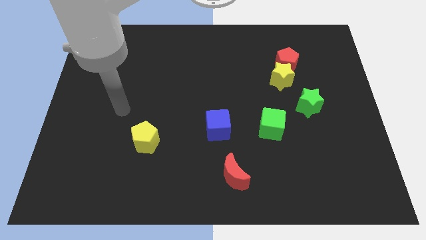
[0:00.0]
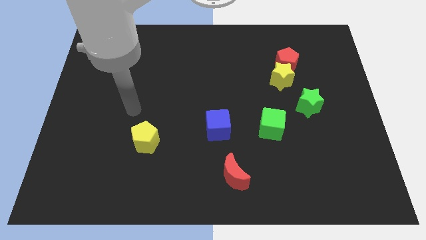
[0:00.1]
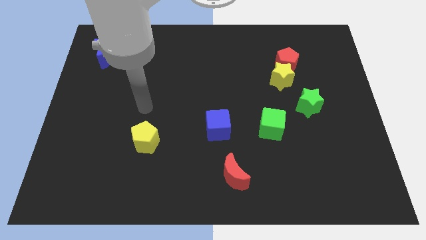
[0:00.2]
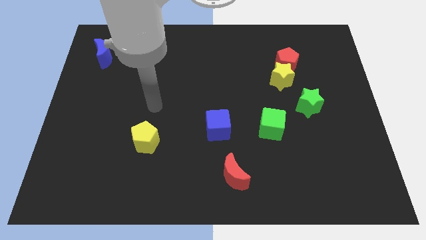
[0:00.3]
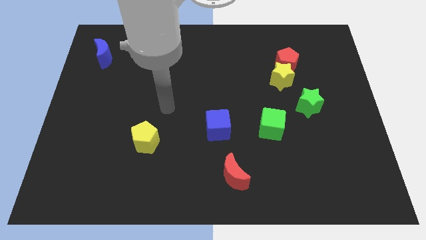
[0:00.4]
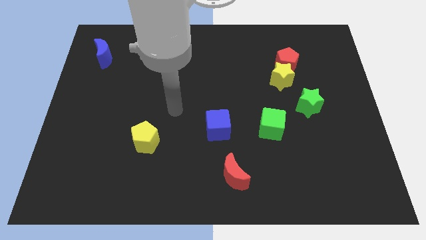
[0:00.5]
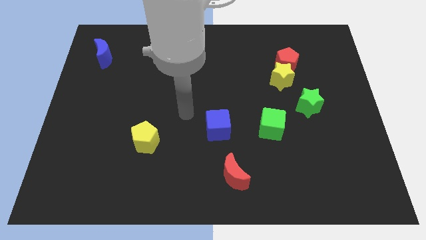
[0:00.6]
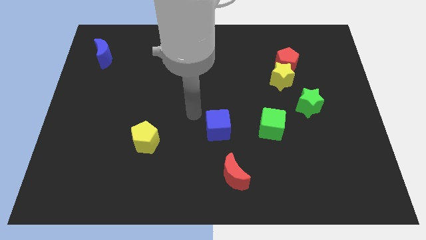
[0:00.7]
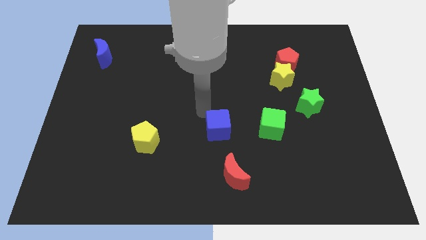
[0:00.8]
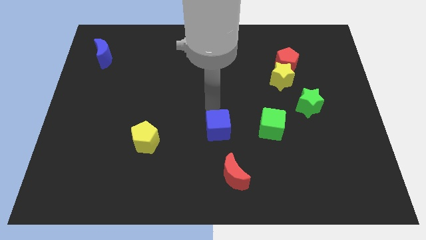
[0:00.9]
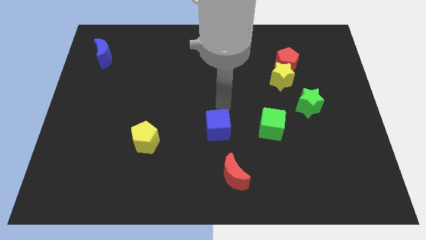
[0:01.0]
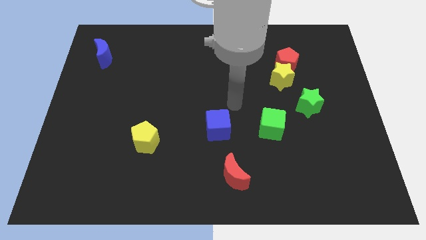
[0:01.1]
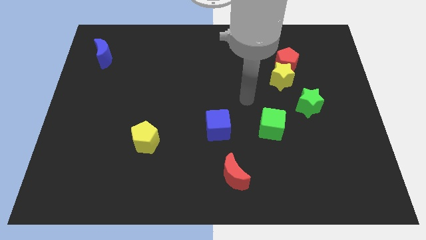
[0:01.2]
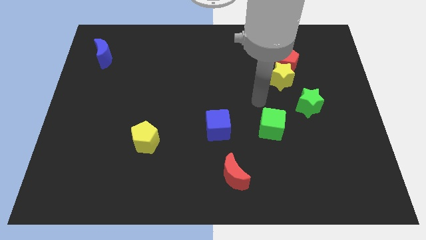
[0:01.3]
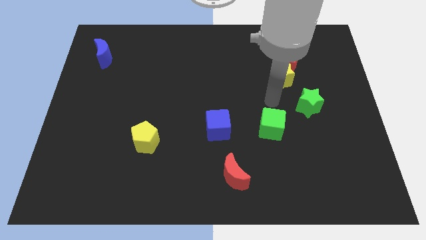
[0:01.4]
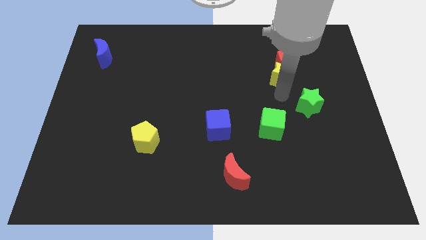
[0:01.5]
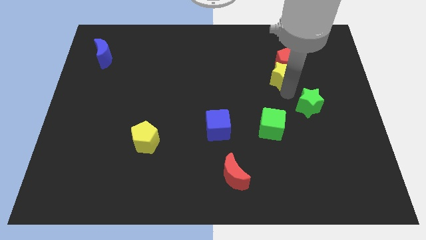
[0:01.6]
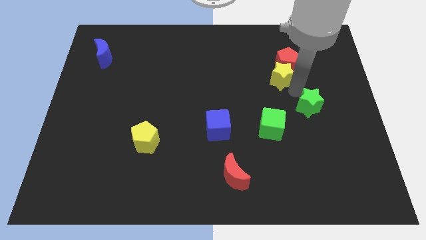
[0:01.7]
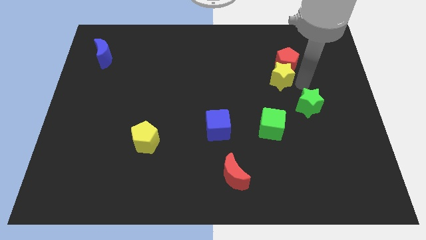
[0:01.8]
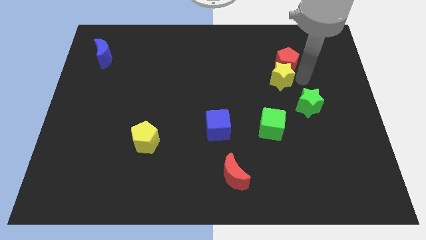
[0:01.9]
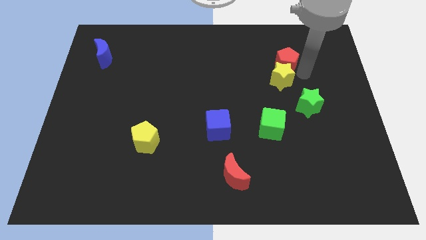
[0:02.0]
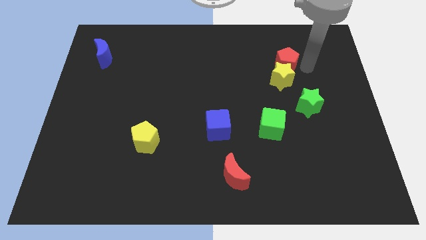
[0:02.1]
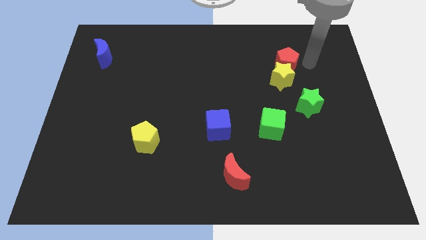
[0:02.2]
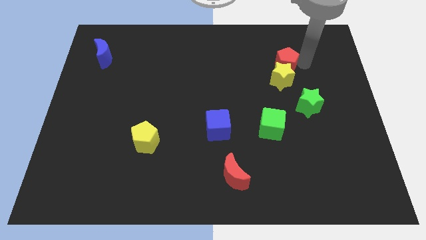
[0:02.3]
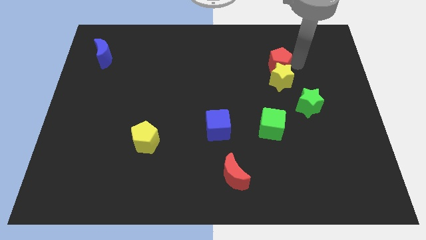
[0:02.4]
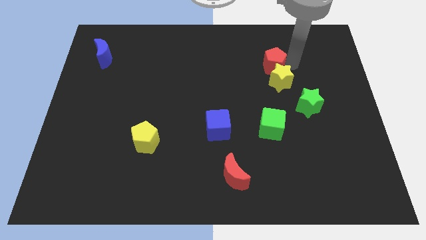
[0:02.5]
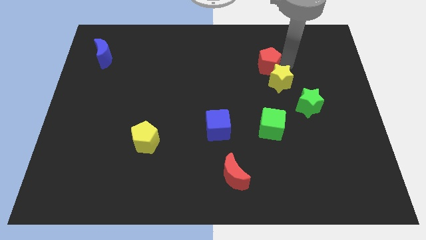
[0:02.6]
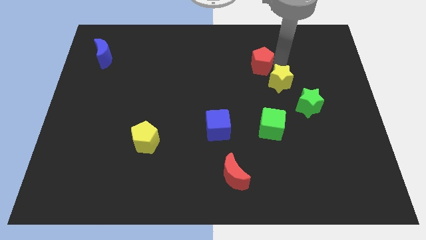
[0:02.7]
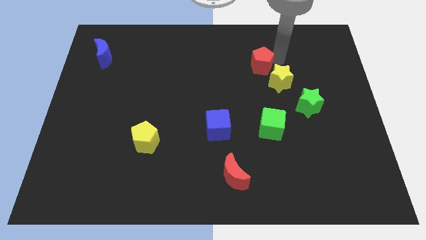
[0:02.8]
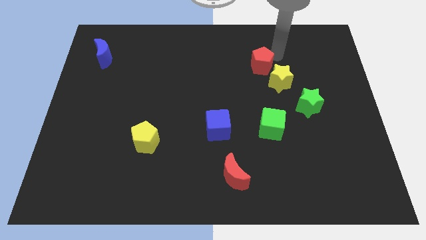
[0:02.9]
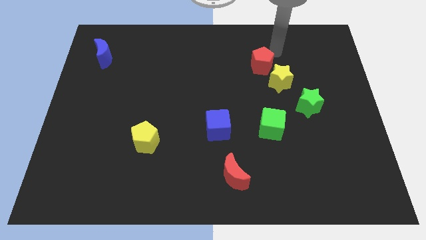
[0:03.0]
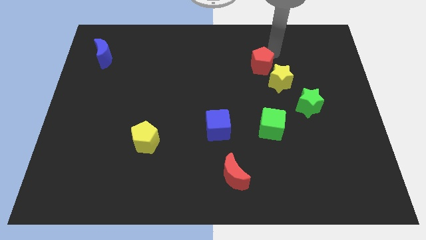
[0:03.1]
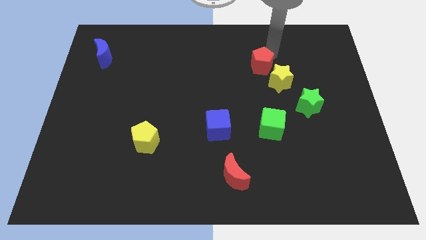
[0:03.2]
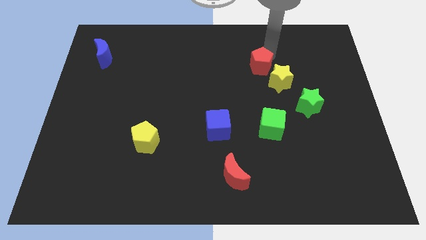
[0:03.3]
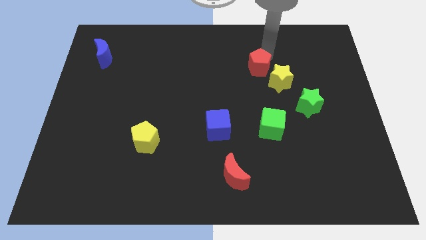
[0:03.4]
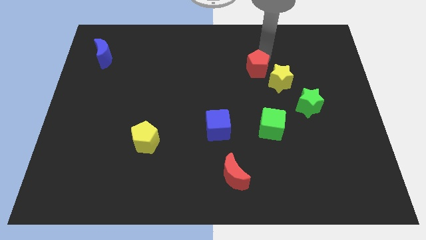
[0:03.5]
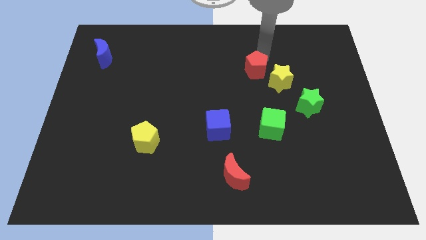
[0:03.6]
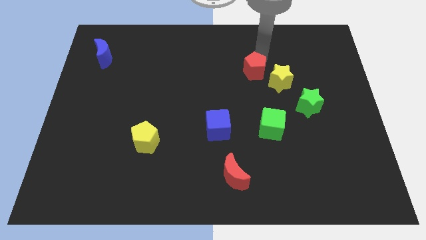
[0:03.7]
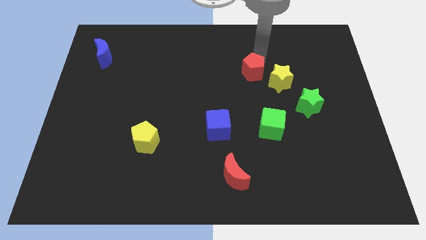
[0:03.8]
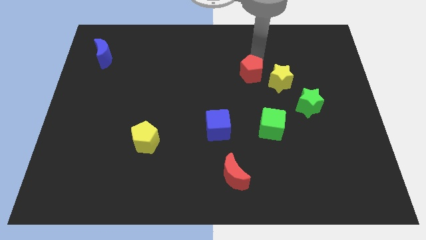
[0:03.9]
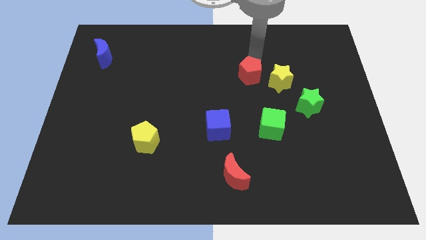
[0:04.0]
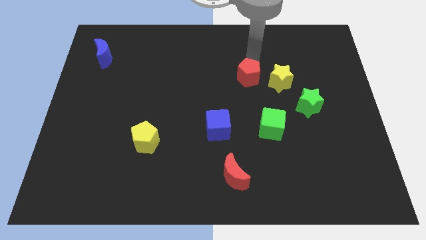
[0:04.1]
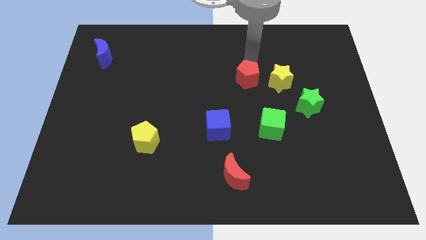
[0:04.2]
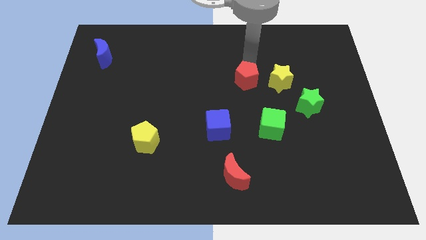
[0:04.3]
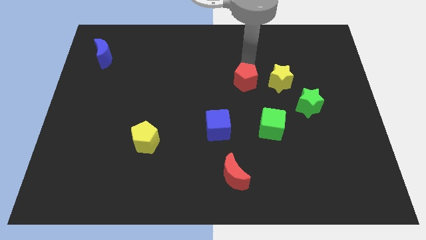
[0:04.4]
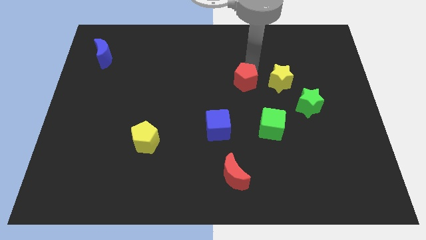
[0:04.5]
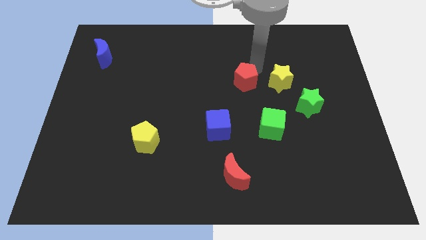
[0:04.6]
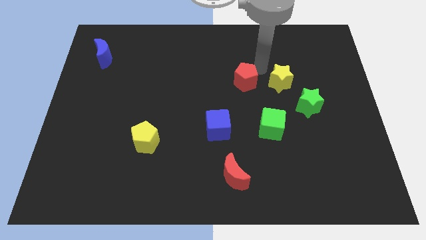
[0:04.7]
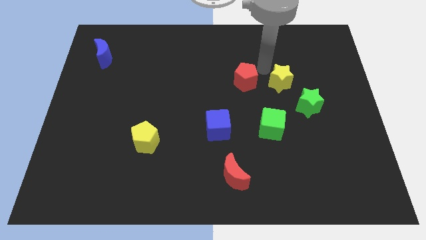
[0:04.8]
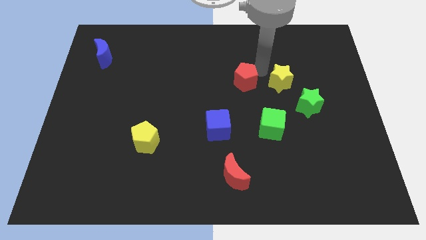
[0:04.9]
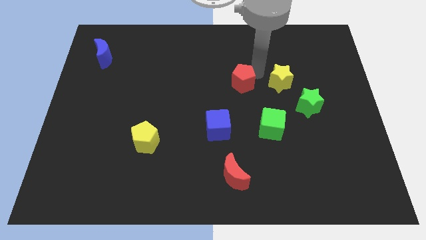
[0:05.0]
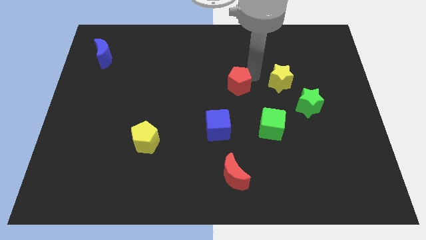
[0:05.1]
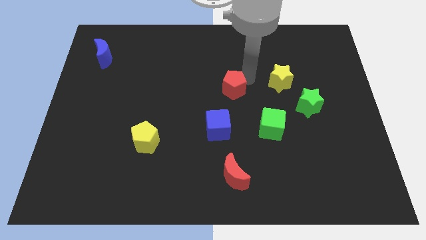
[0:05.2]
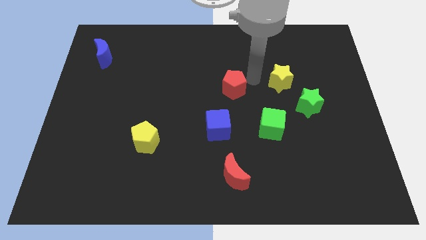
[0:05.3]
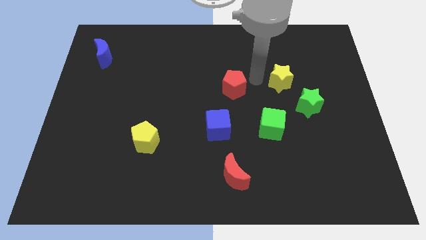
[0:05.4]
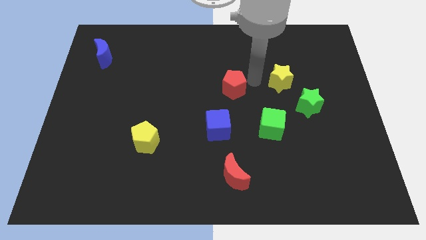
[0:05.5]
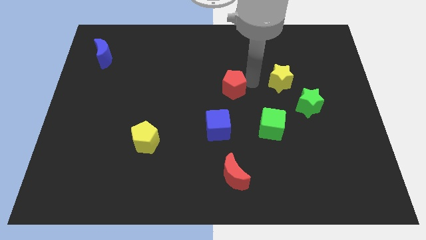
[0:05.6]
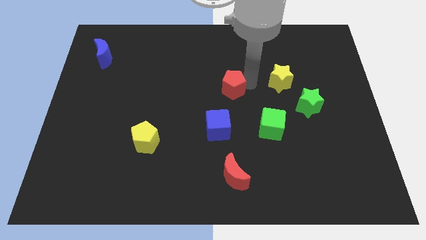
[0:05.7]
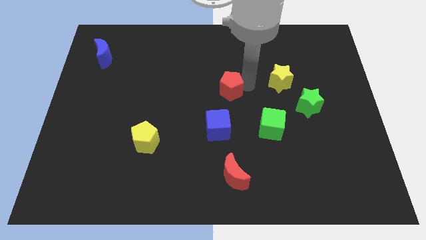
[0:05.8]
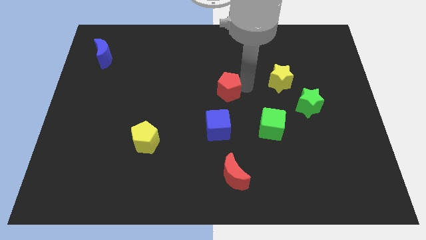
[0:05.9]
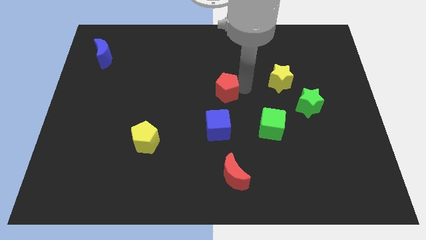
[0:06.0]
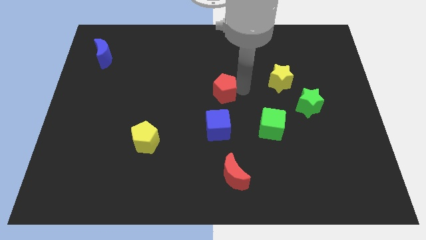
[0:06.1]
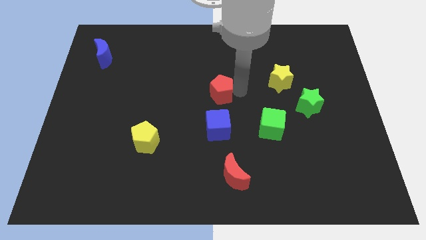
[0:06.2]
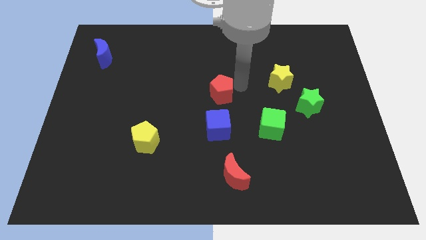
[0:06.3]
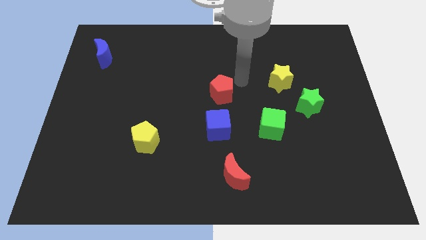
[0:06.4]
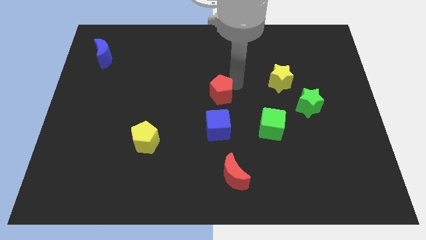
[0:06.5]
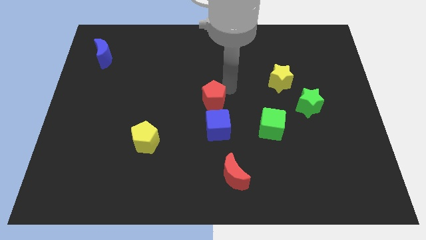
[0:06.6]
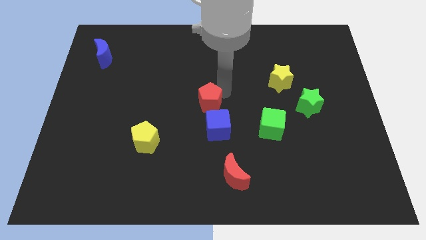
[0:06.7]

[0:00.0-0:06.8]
push the red pentagon to the top left of the blue cube

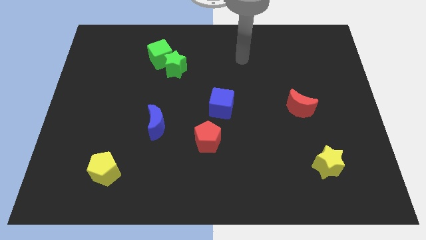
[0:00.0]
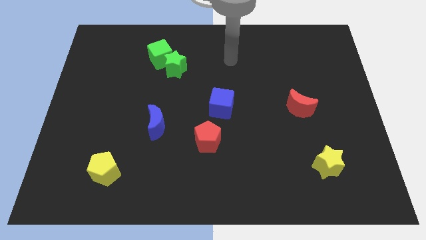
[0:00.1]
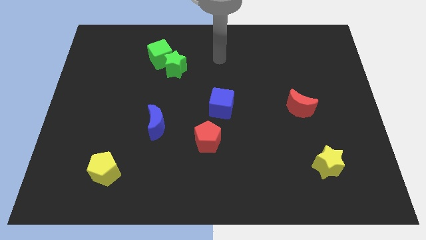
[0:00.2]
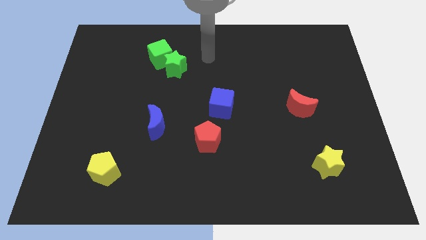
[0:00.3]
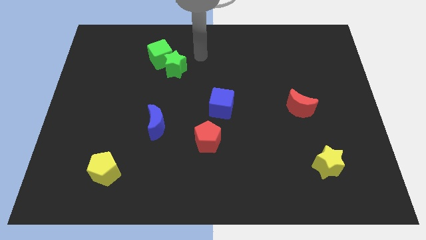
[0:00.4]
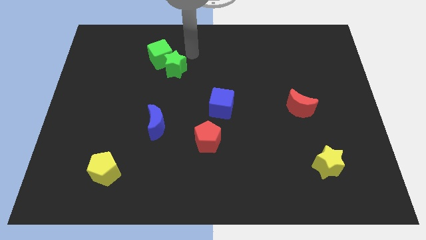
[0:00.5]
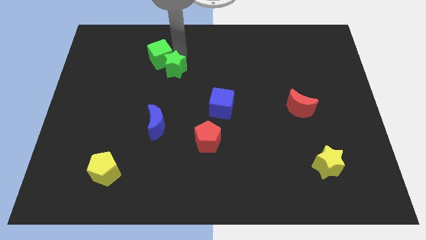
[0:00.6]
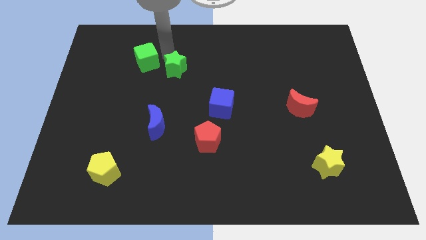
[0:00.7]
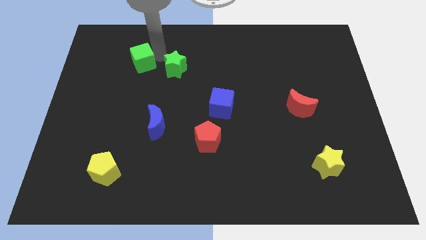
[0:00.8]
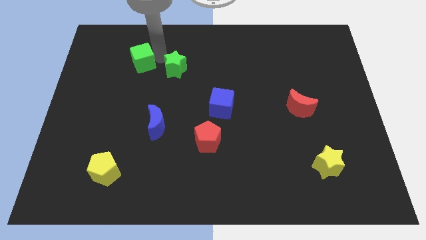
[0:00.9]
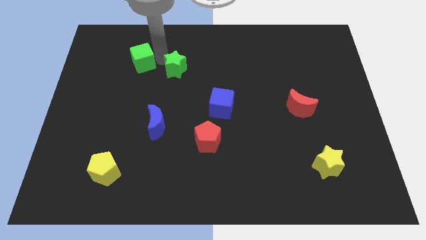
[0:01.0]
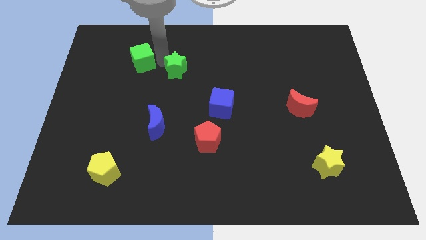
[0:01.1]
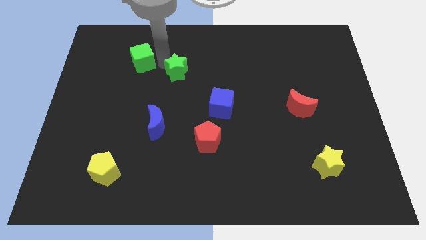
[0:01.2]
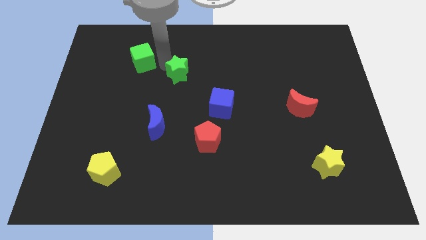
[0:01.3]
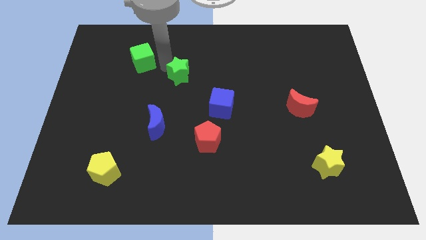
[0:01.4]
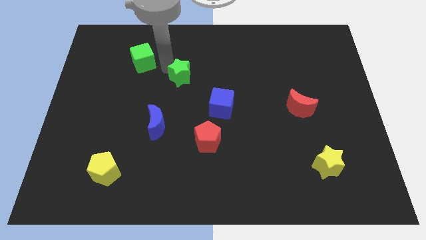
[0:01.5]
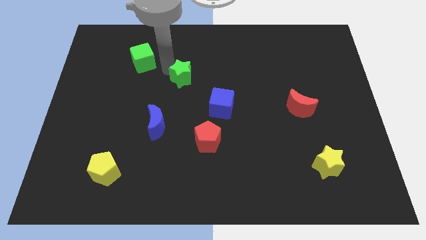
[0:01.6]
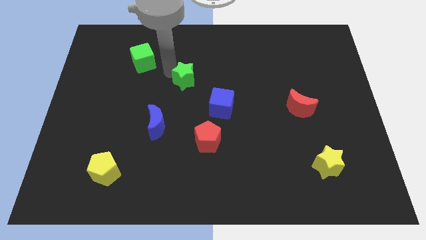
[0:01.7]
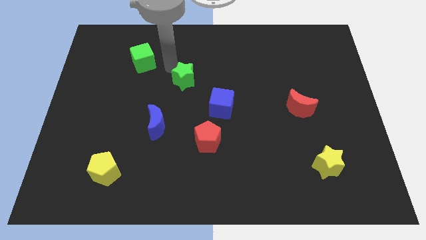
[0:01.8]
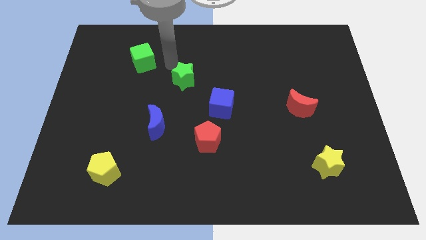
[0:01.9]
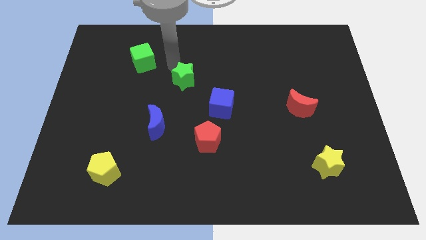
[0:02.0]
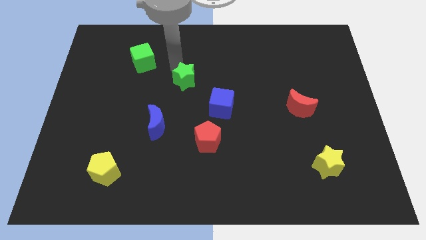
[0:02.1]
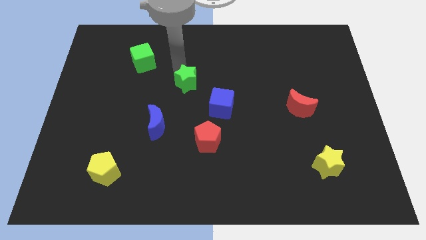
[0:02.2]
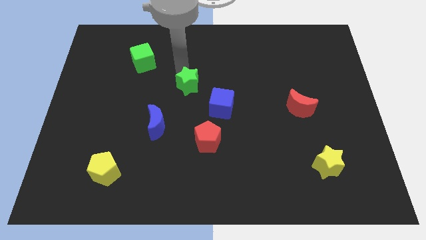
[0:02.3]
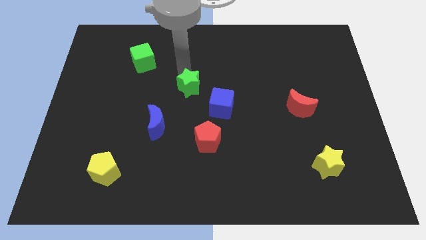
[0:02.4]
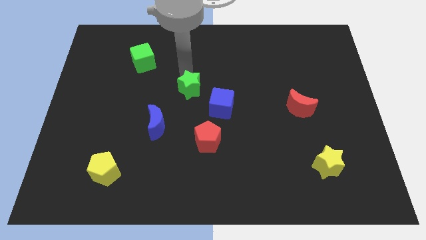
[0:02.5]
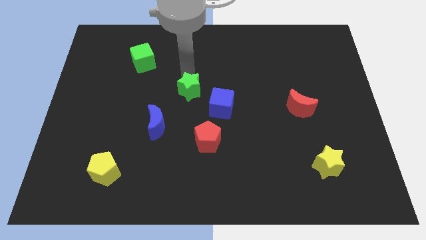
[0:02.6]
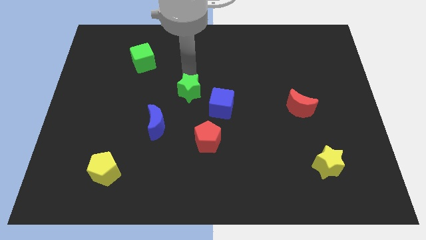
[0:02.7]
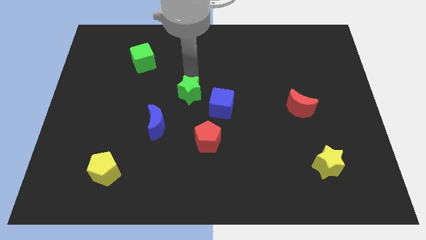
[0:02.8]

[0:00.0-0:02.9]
move the green star to the top of the red pentagon
